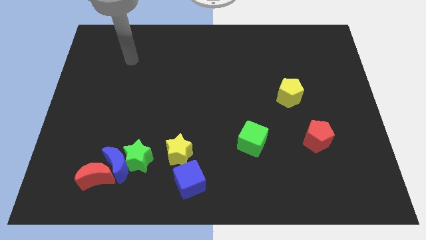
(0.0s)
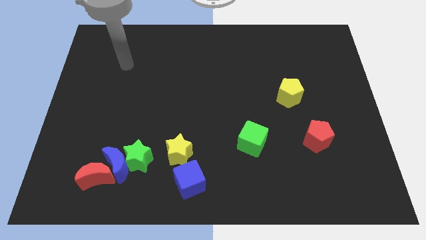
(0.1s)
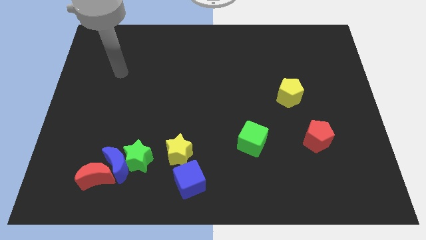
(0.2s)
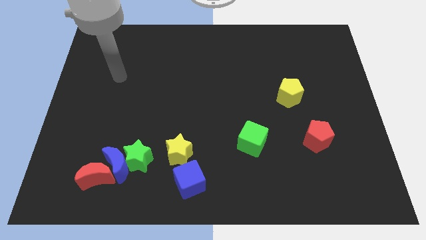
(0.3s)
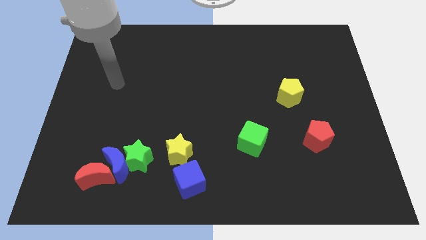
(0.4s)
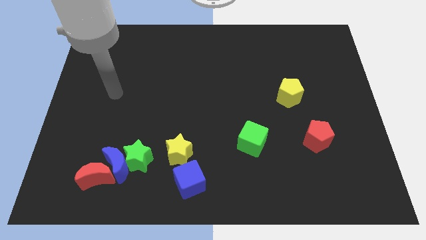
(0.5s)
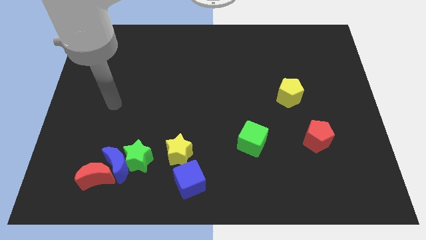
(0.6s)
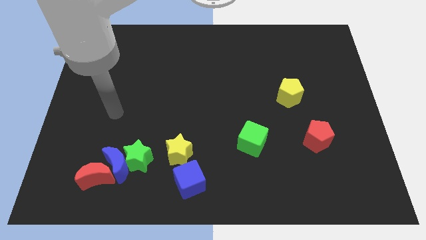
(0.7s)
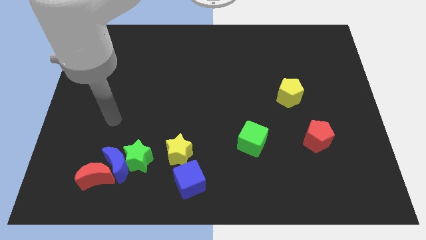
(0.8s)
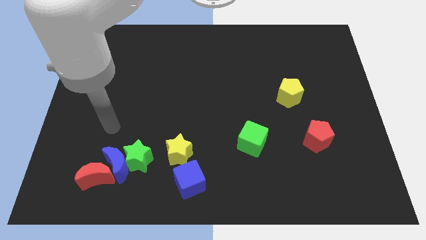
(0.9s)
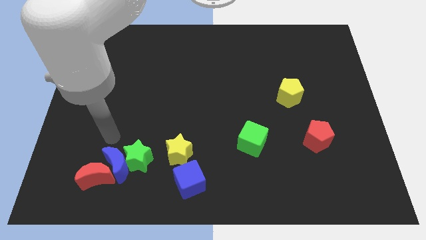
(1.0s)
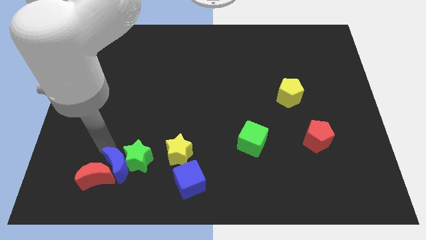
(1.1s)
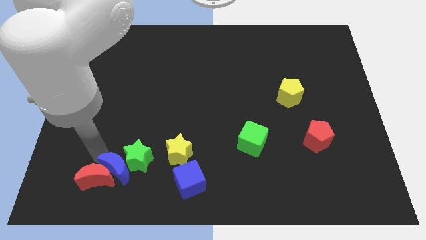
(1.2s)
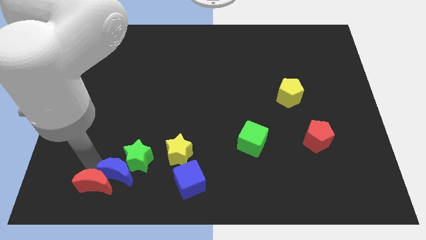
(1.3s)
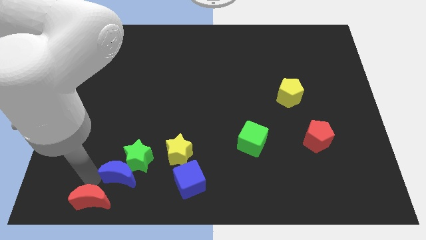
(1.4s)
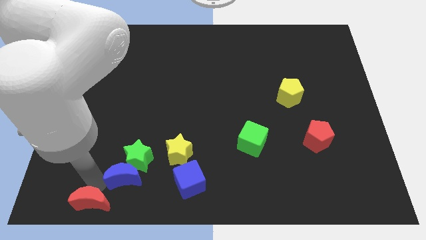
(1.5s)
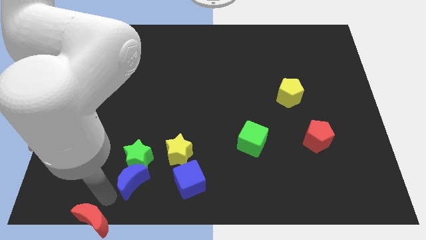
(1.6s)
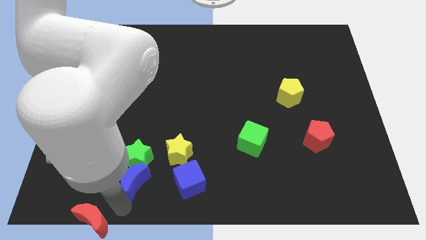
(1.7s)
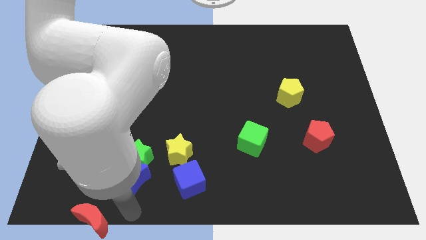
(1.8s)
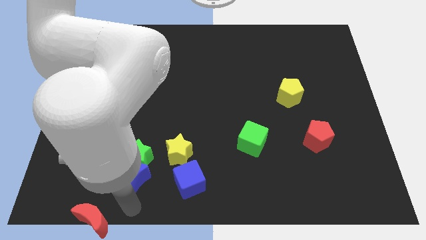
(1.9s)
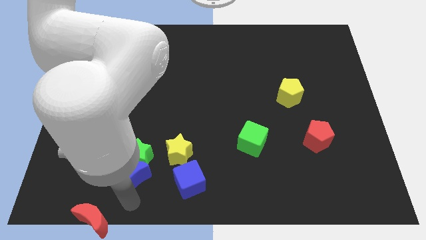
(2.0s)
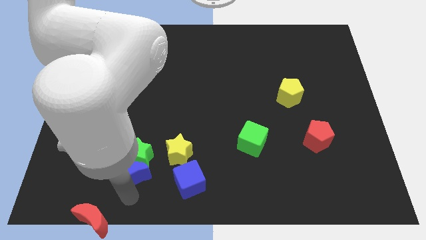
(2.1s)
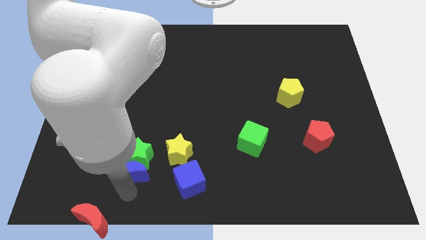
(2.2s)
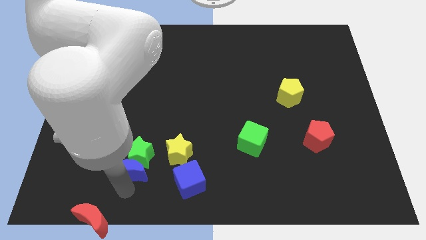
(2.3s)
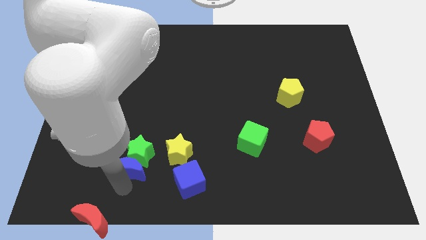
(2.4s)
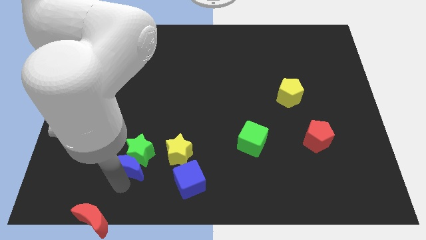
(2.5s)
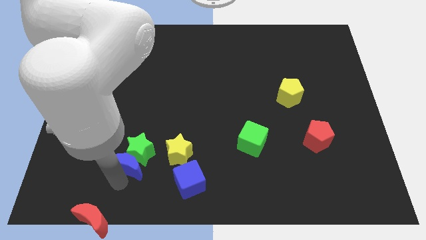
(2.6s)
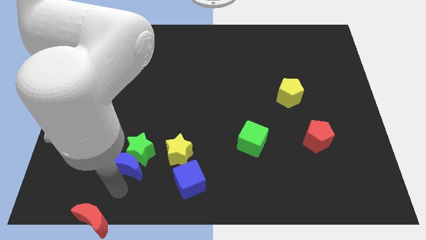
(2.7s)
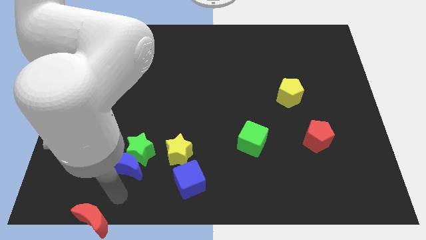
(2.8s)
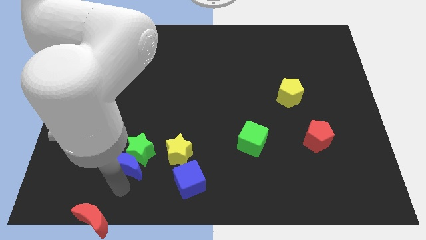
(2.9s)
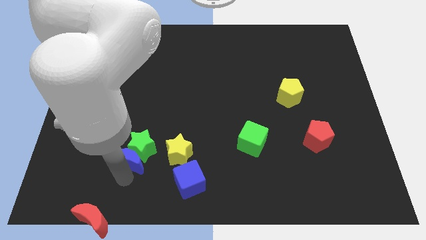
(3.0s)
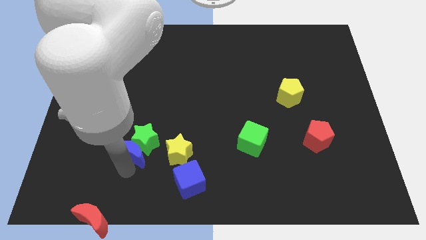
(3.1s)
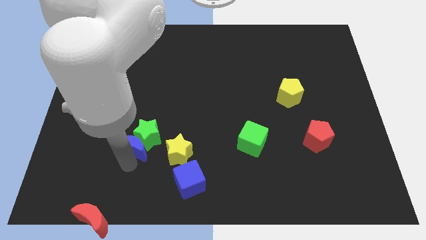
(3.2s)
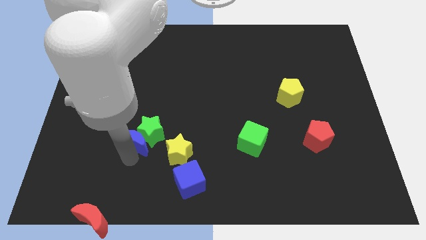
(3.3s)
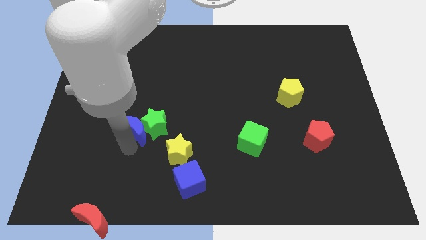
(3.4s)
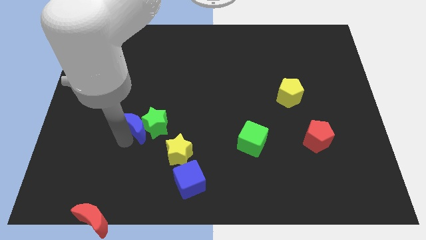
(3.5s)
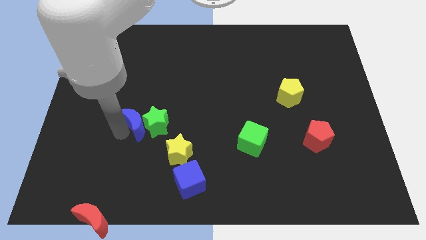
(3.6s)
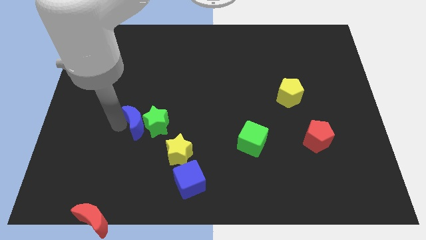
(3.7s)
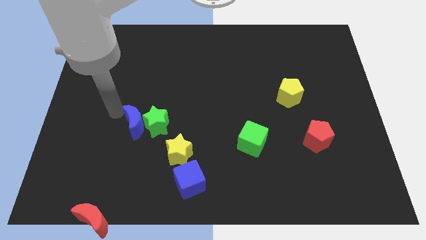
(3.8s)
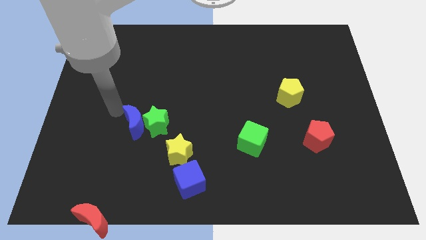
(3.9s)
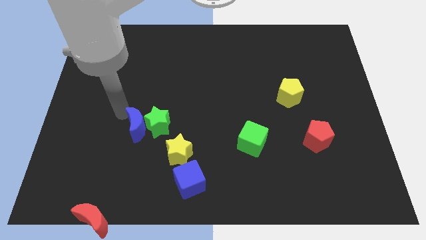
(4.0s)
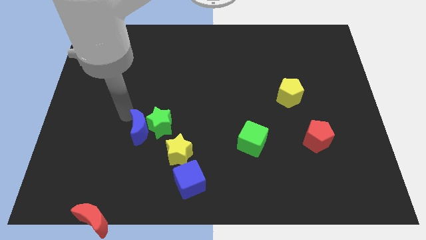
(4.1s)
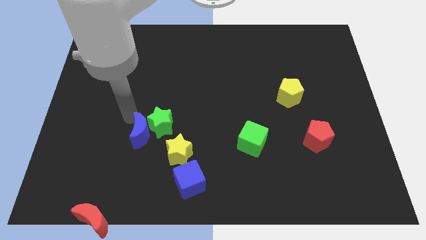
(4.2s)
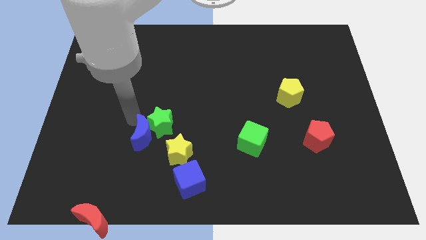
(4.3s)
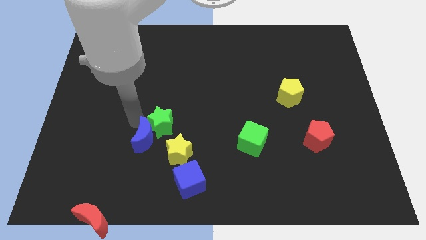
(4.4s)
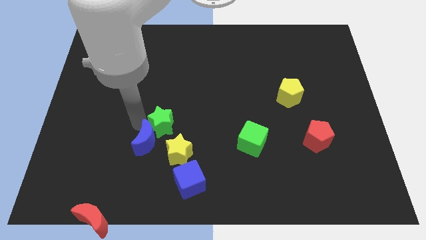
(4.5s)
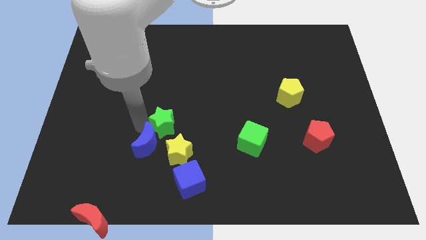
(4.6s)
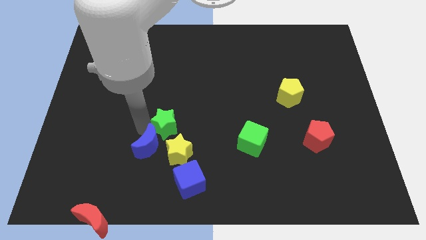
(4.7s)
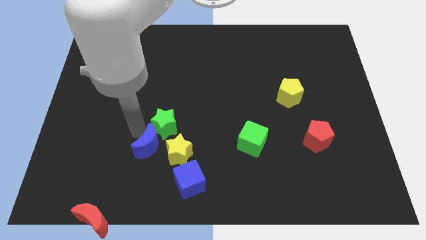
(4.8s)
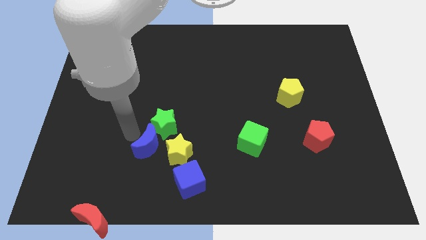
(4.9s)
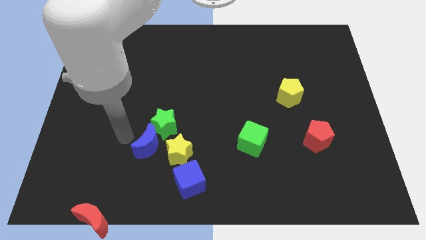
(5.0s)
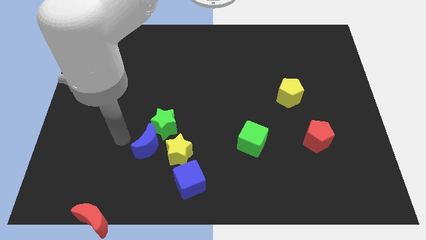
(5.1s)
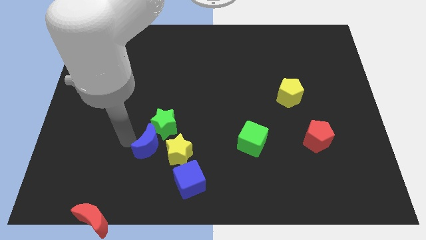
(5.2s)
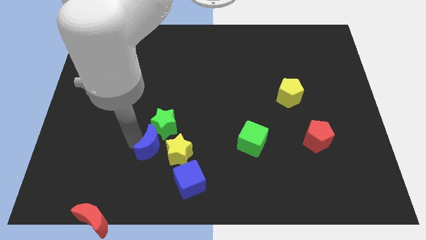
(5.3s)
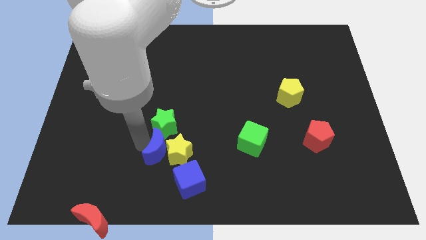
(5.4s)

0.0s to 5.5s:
move the blue moon close to the yellow star

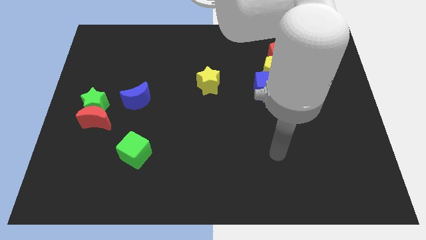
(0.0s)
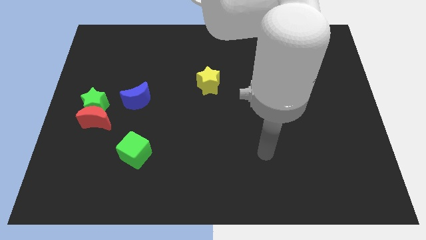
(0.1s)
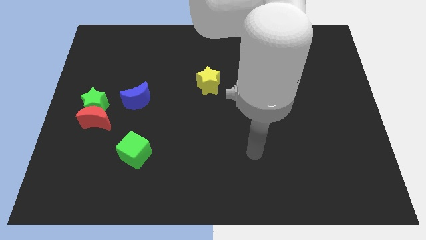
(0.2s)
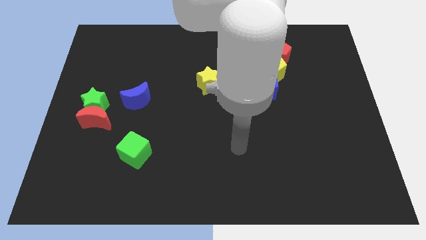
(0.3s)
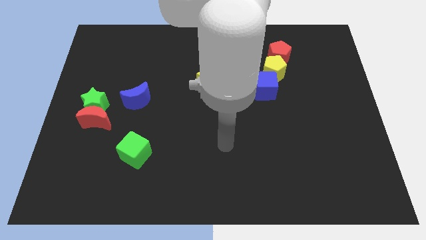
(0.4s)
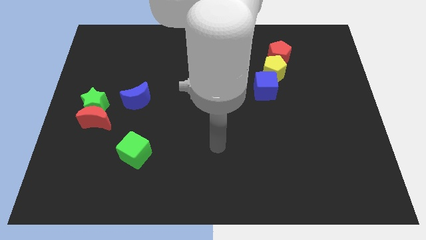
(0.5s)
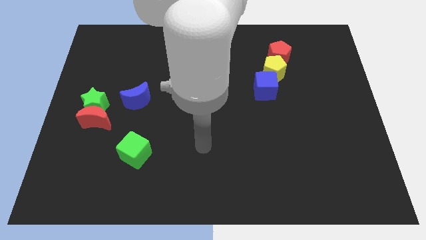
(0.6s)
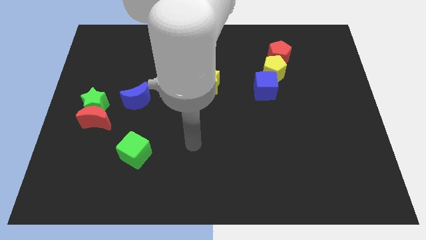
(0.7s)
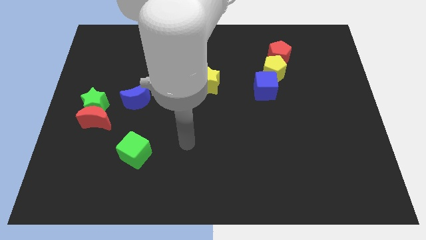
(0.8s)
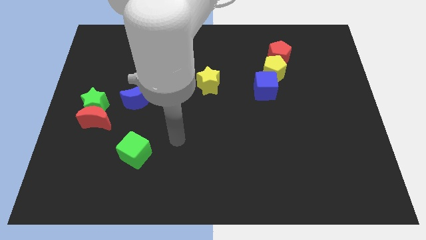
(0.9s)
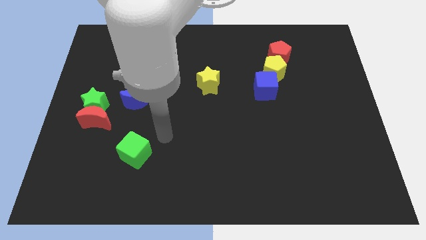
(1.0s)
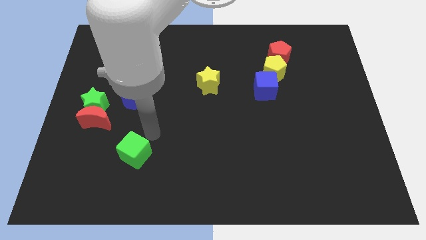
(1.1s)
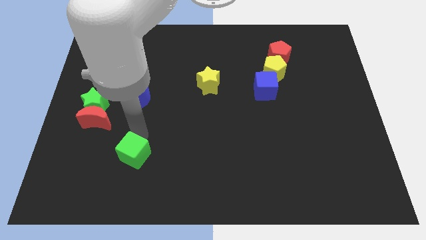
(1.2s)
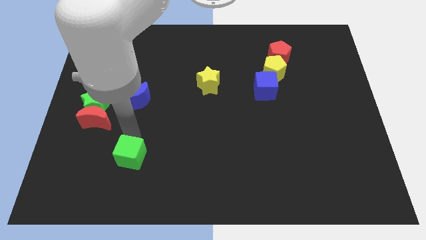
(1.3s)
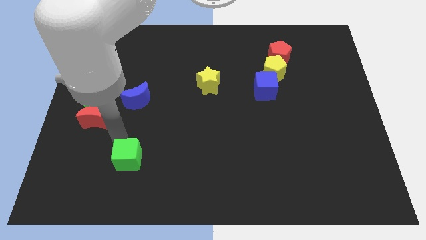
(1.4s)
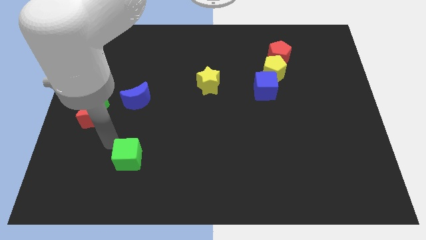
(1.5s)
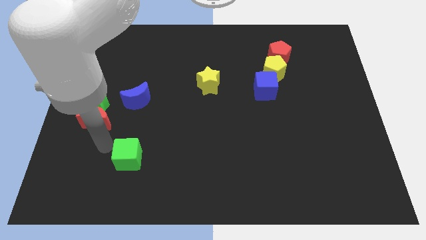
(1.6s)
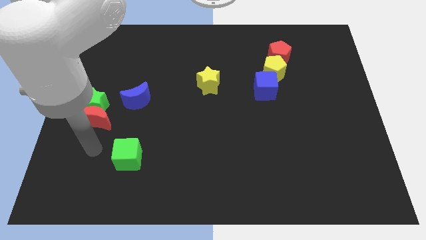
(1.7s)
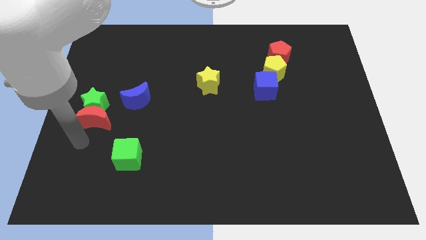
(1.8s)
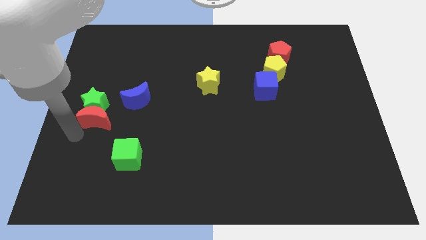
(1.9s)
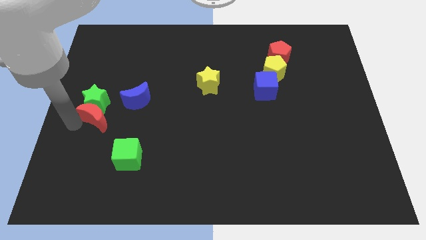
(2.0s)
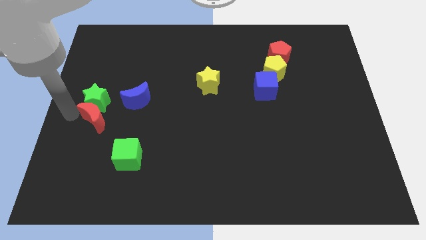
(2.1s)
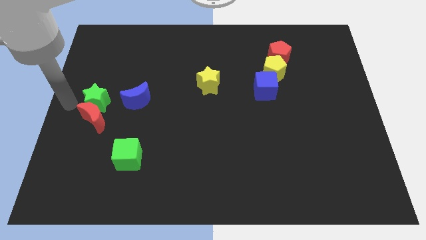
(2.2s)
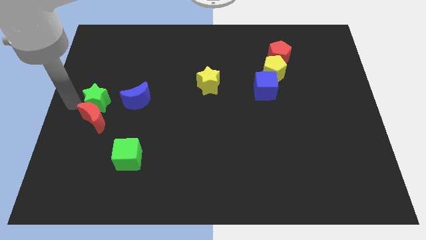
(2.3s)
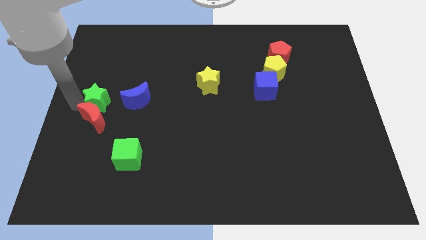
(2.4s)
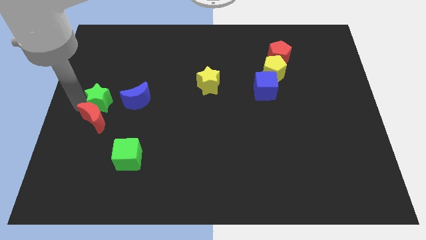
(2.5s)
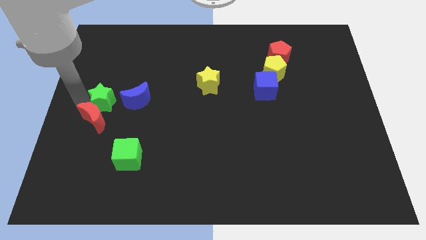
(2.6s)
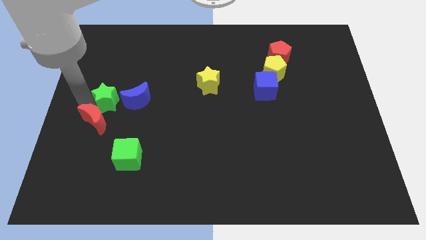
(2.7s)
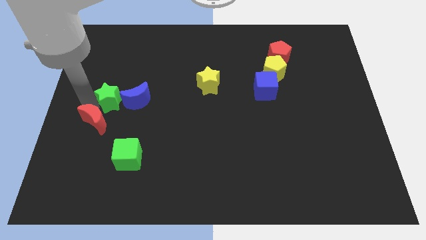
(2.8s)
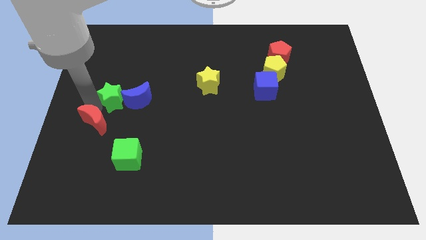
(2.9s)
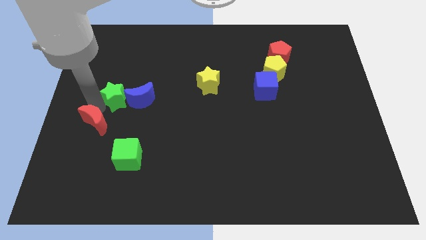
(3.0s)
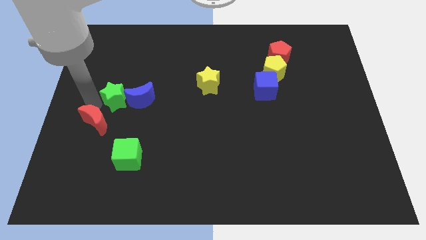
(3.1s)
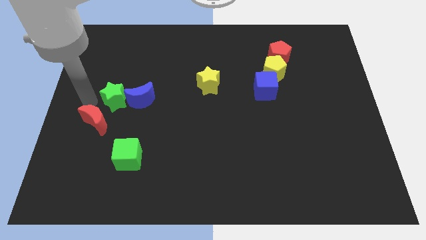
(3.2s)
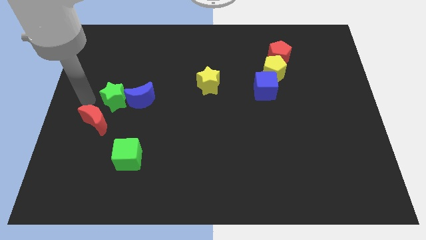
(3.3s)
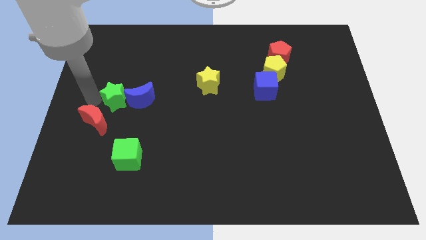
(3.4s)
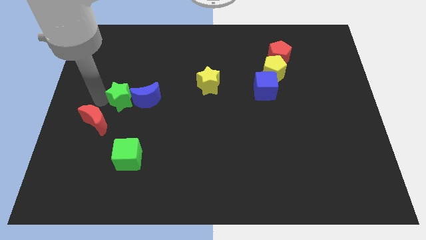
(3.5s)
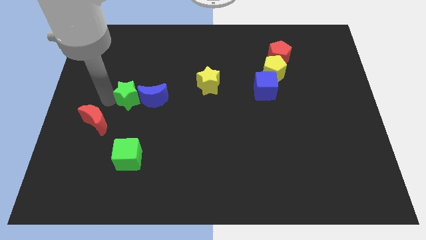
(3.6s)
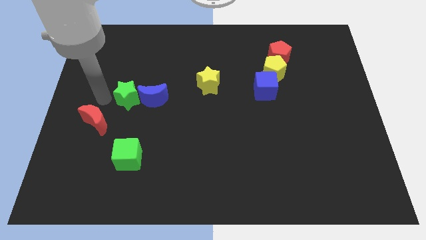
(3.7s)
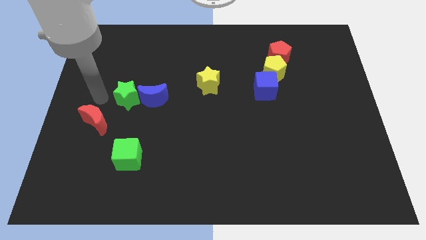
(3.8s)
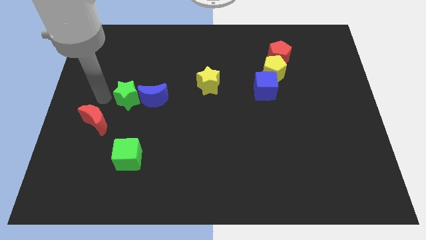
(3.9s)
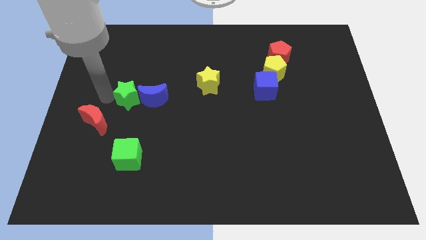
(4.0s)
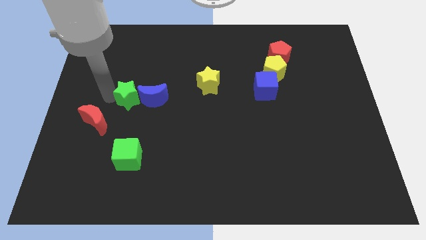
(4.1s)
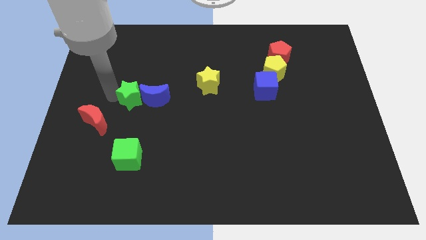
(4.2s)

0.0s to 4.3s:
push the green star close to the blue moon
